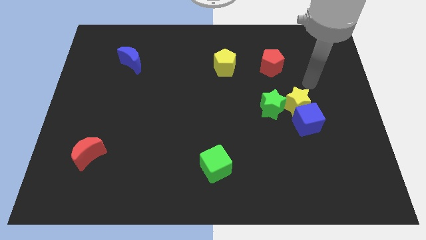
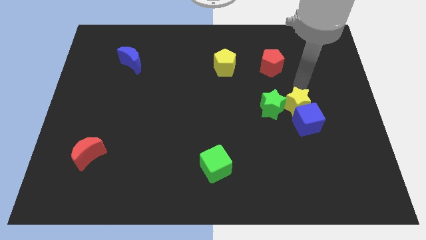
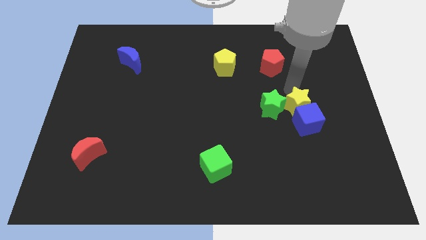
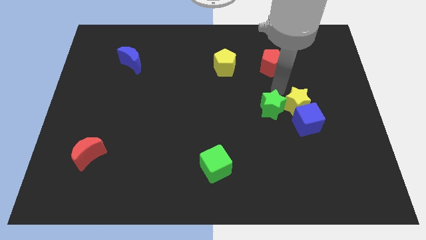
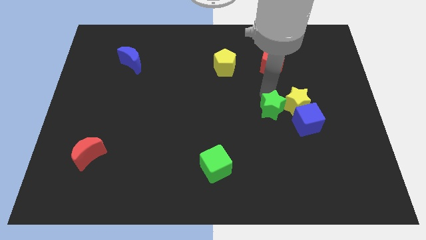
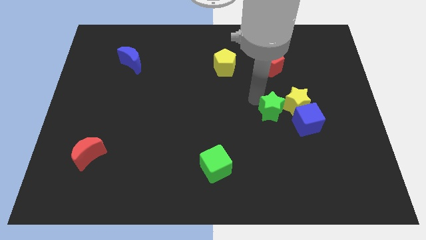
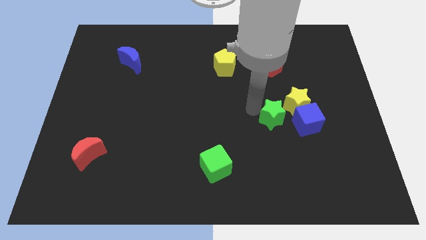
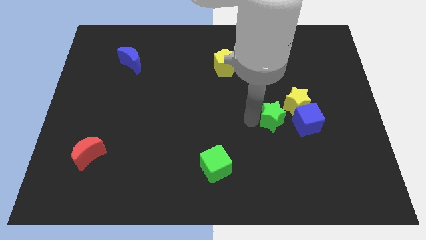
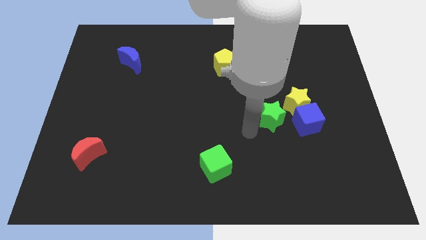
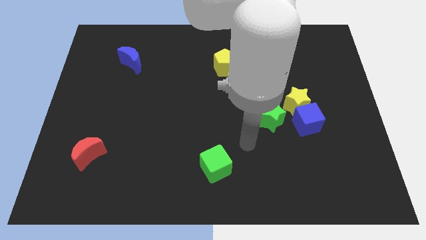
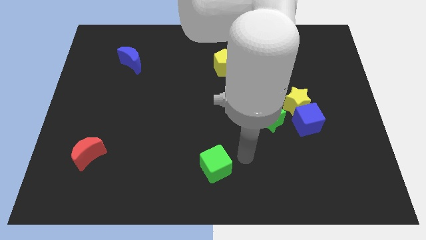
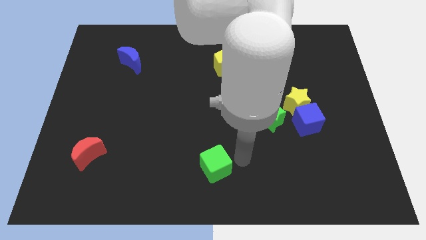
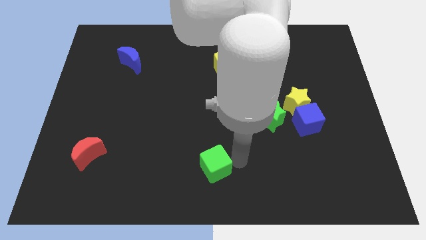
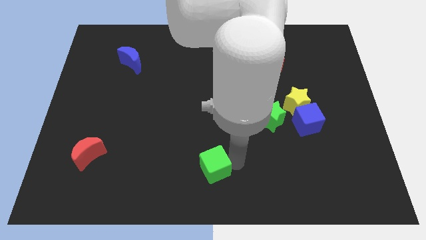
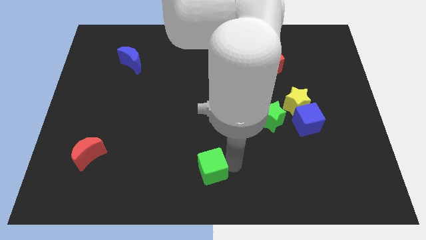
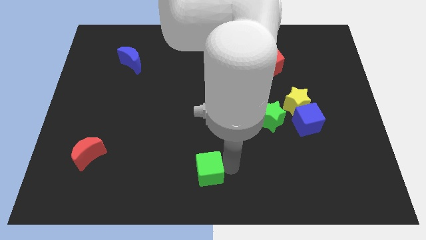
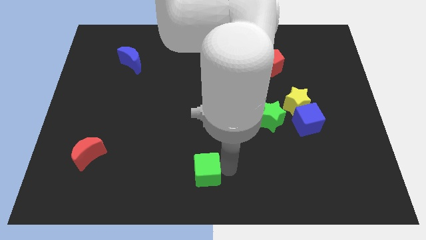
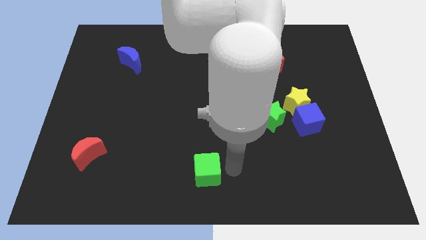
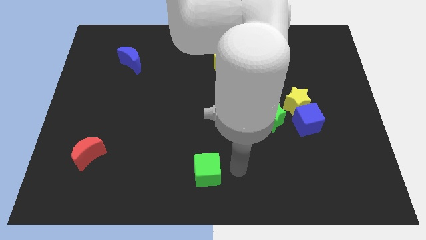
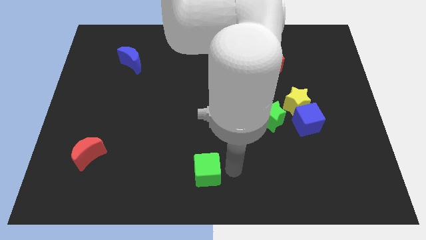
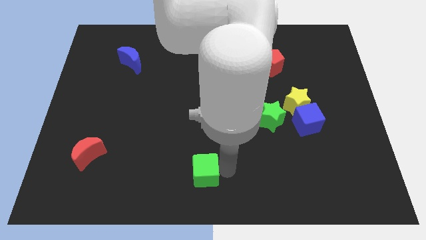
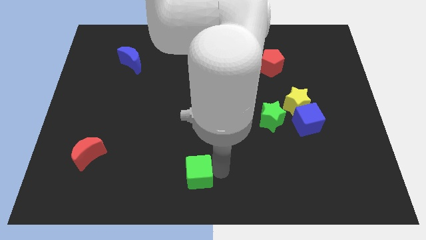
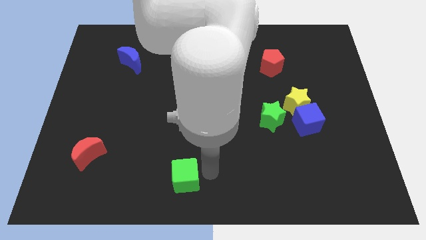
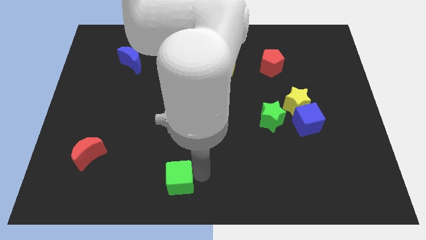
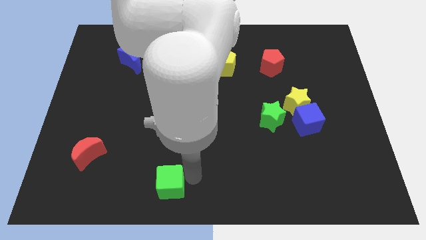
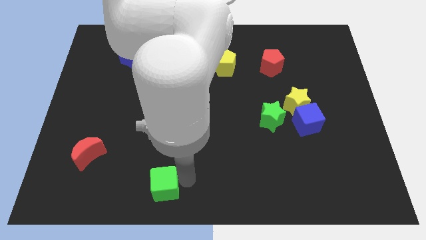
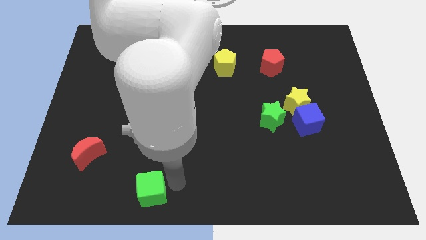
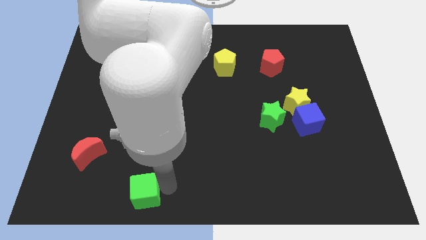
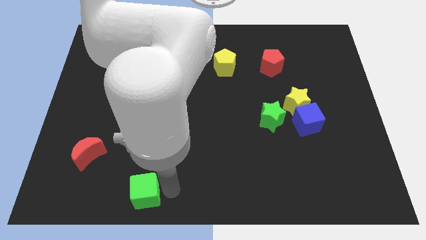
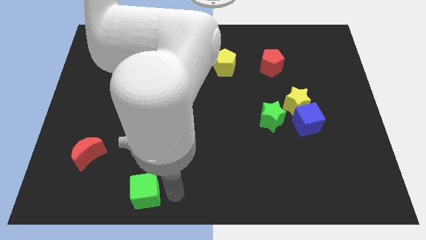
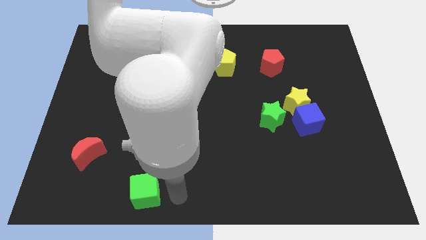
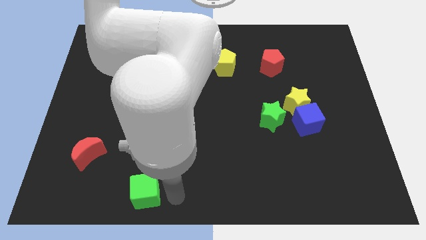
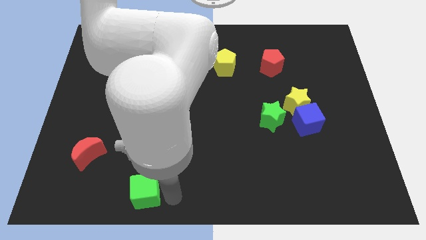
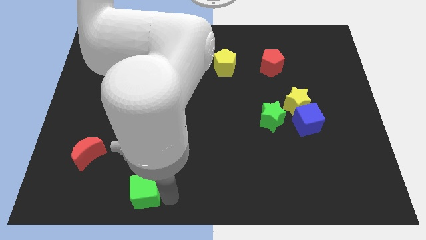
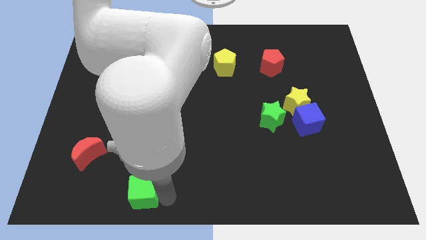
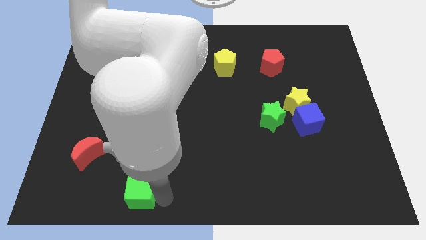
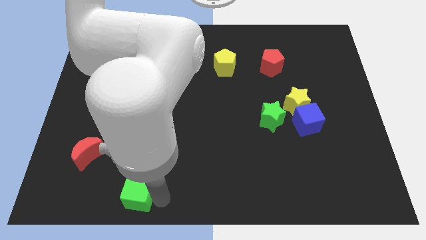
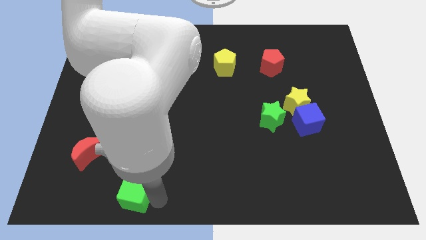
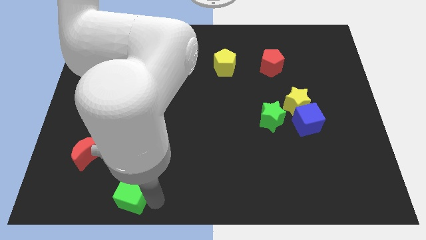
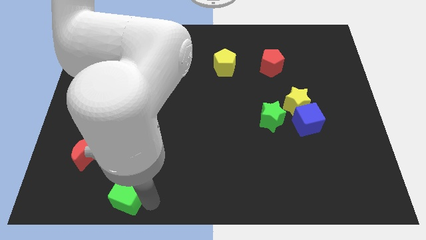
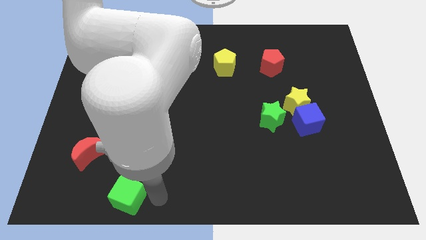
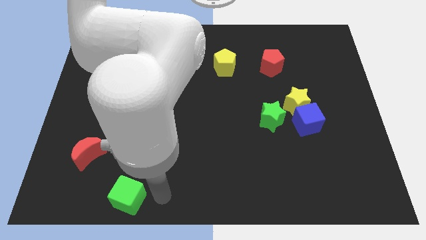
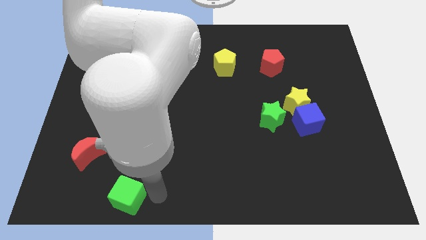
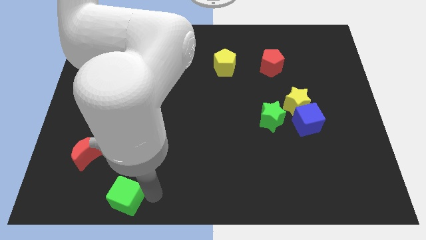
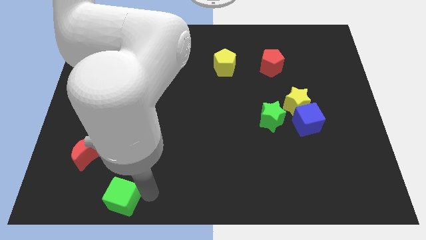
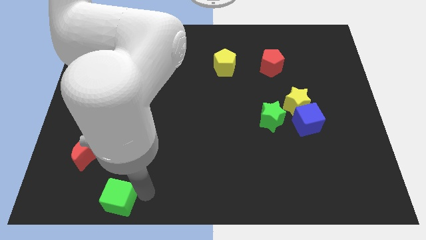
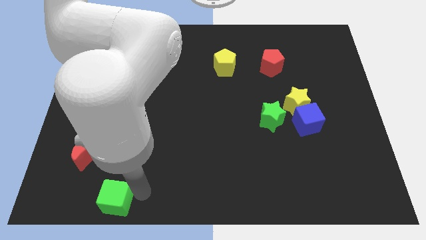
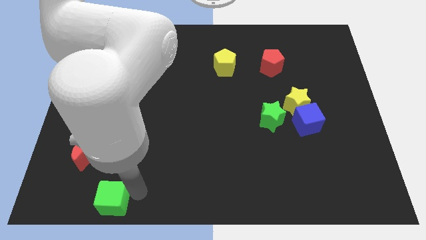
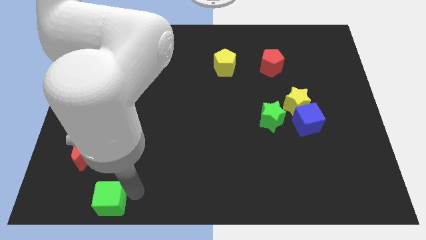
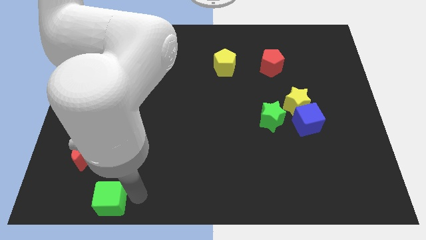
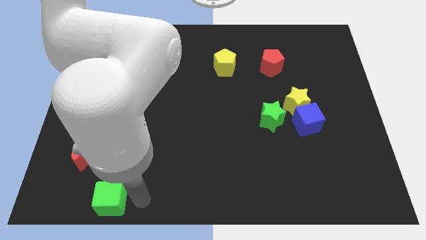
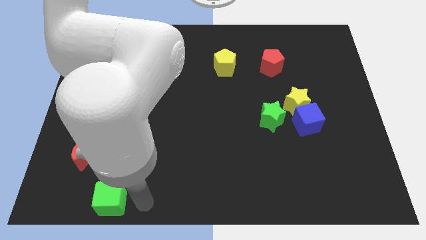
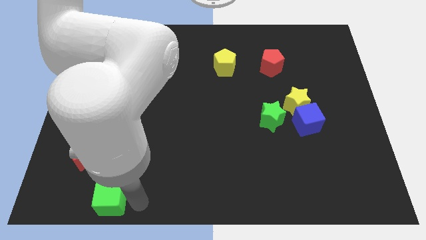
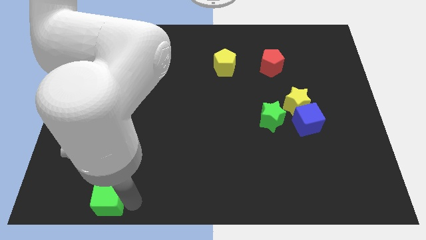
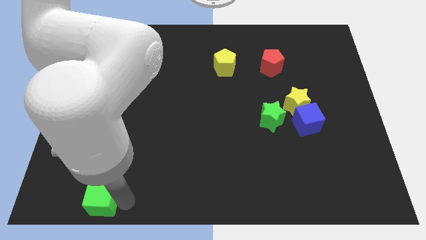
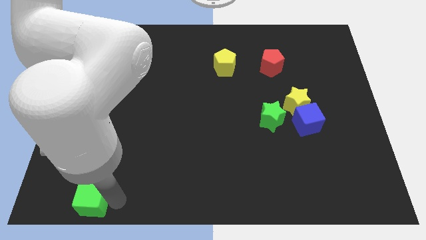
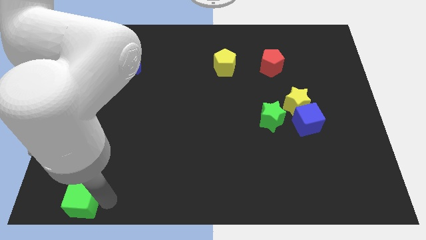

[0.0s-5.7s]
slide the green cube to the bottom left corner
